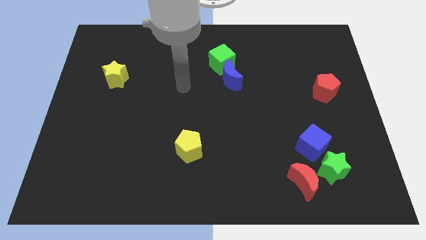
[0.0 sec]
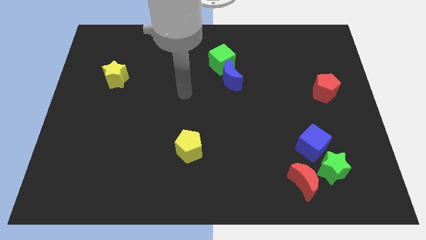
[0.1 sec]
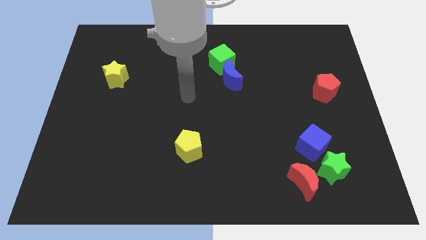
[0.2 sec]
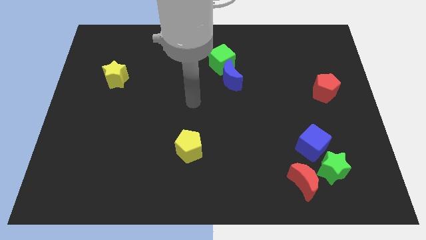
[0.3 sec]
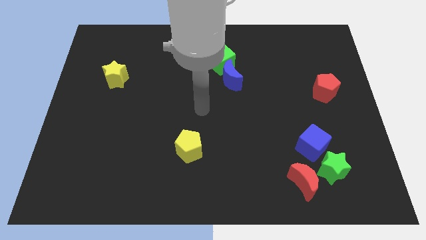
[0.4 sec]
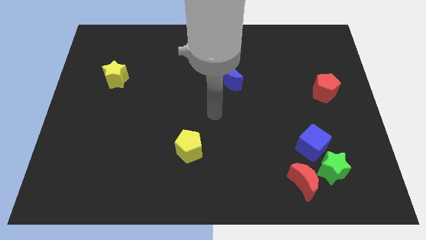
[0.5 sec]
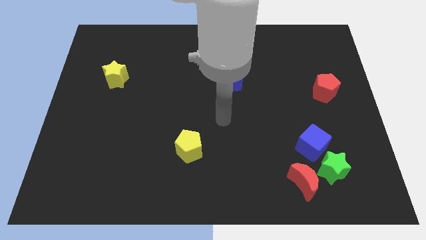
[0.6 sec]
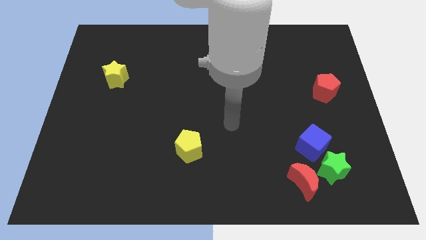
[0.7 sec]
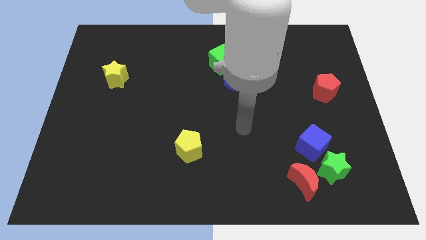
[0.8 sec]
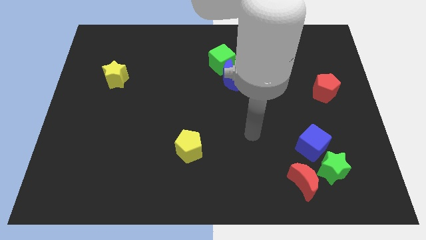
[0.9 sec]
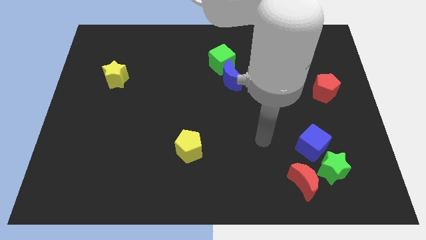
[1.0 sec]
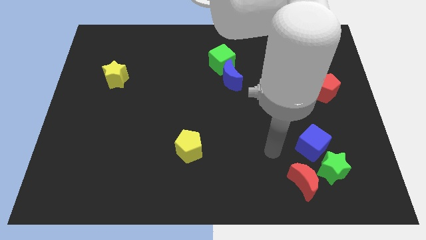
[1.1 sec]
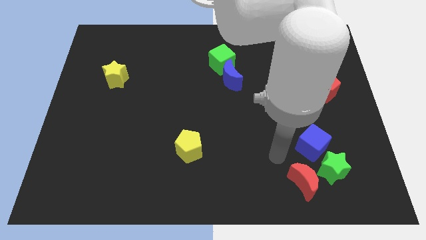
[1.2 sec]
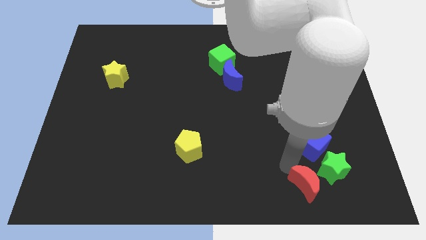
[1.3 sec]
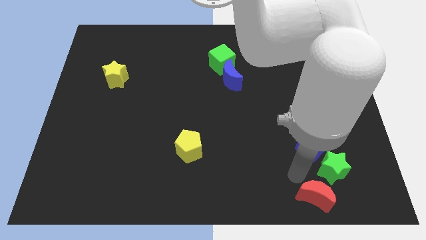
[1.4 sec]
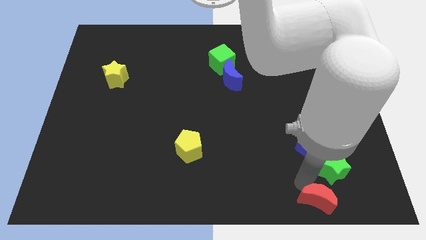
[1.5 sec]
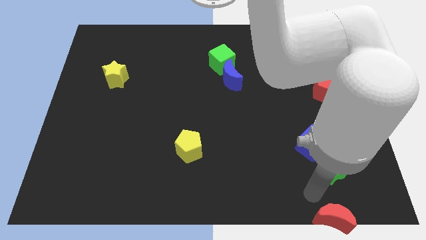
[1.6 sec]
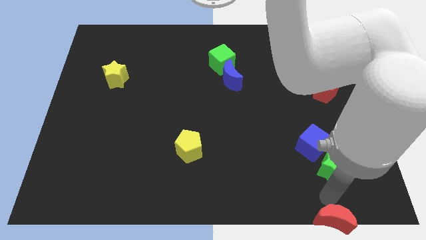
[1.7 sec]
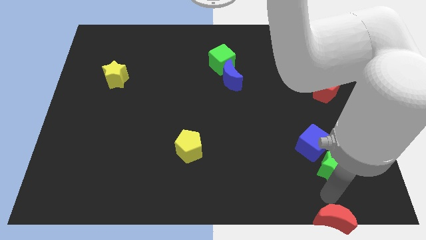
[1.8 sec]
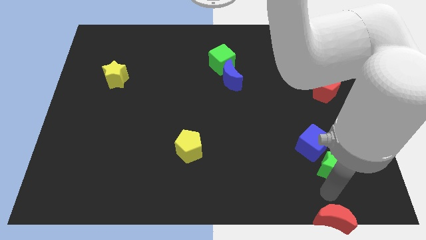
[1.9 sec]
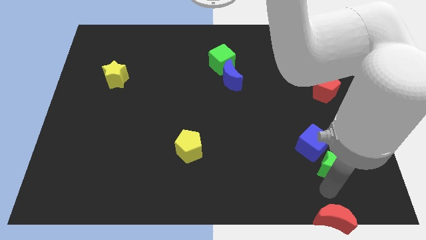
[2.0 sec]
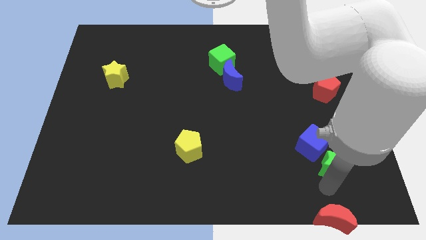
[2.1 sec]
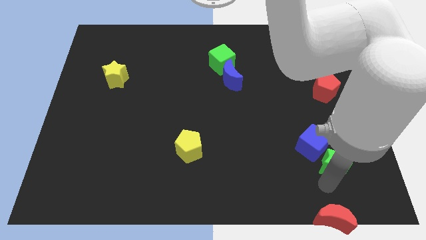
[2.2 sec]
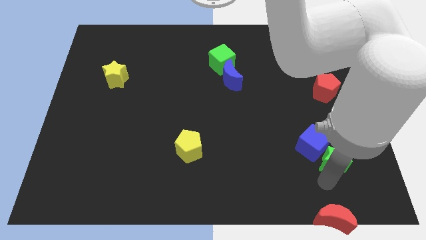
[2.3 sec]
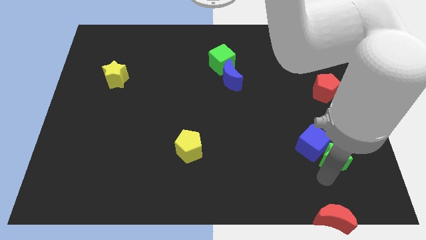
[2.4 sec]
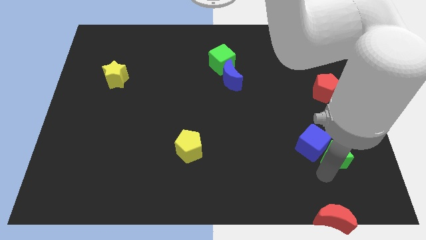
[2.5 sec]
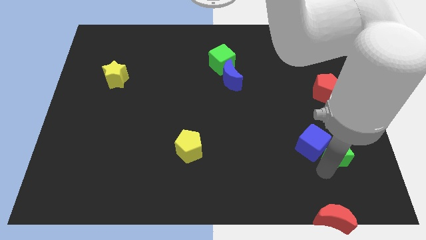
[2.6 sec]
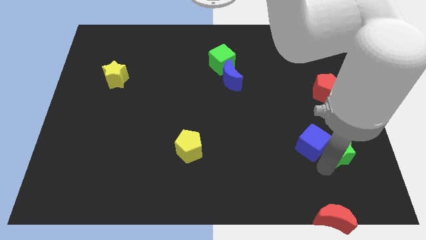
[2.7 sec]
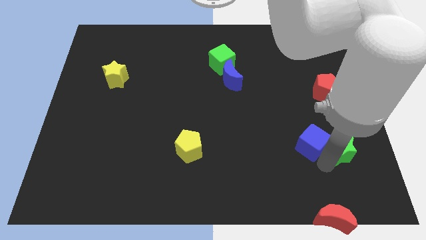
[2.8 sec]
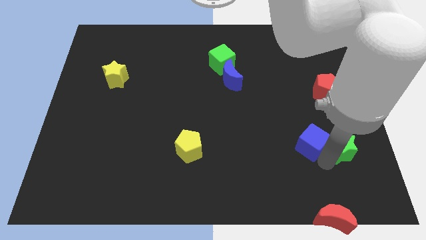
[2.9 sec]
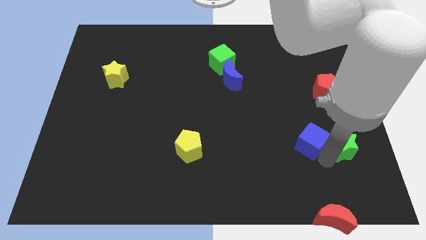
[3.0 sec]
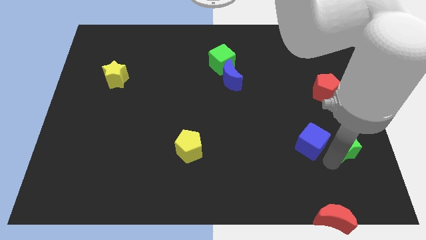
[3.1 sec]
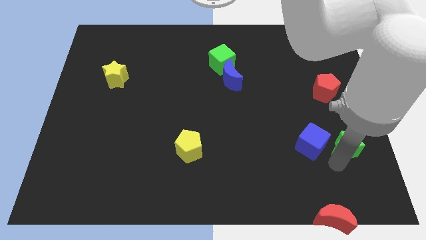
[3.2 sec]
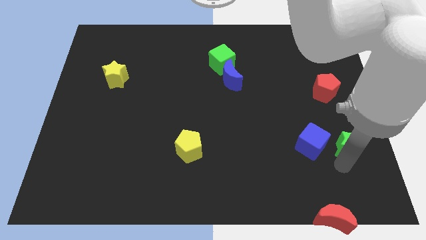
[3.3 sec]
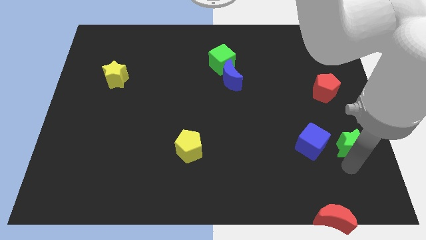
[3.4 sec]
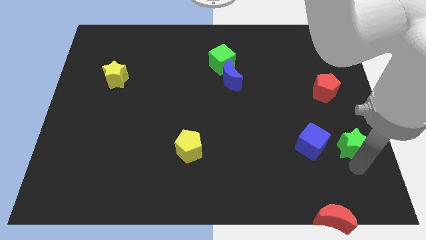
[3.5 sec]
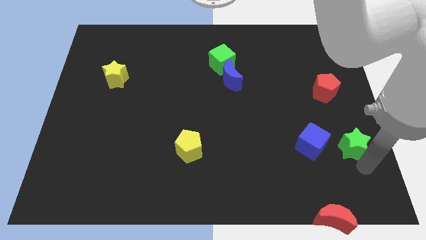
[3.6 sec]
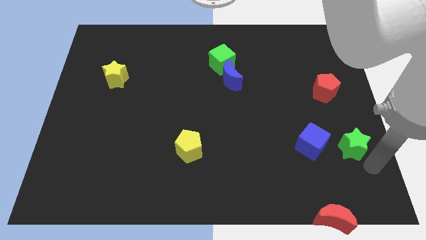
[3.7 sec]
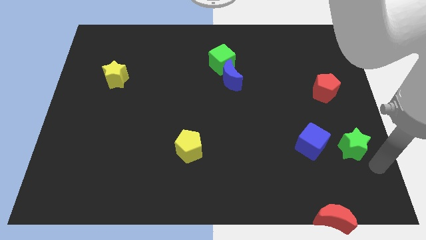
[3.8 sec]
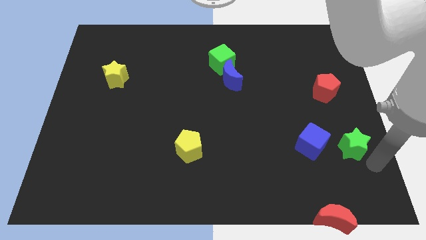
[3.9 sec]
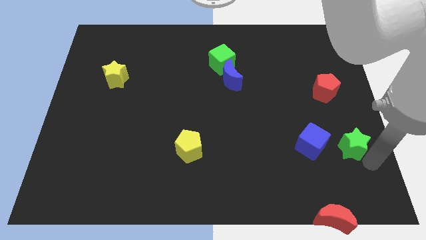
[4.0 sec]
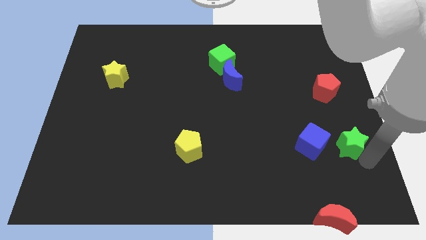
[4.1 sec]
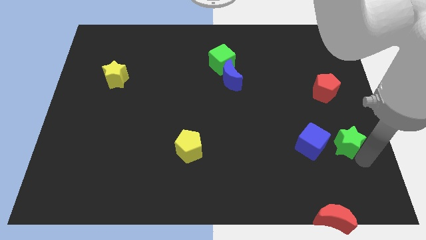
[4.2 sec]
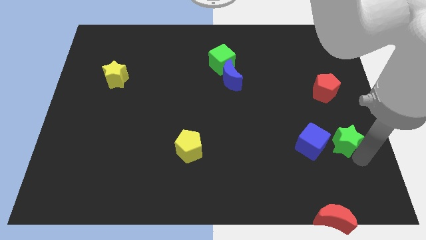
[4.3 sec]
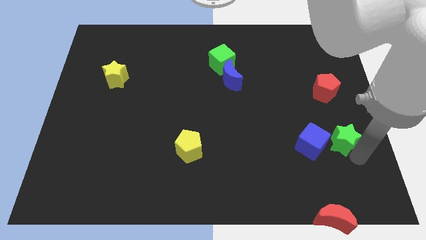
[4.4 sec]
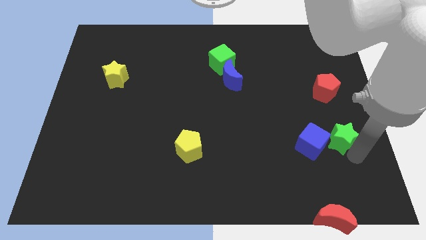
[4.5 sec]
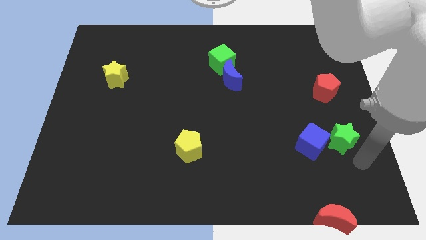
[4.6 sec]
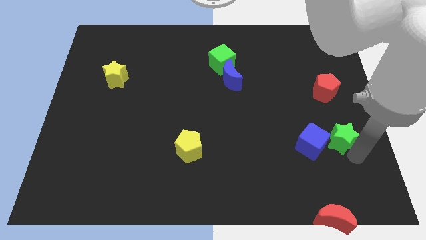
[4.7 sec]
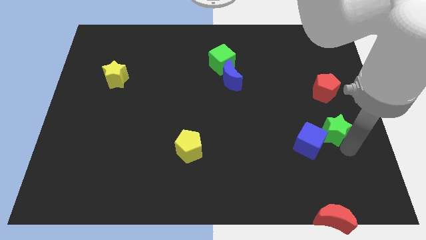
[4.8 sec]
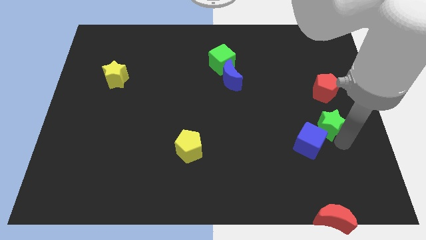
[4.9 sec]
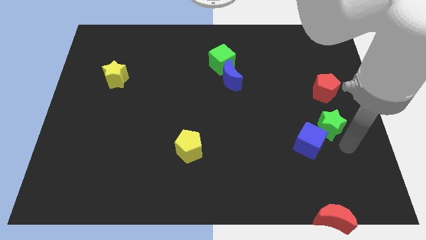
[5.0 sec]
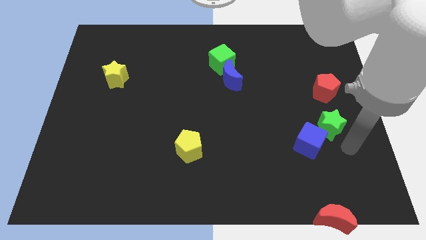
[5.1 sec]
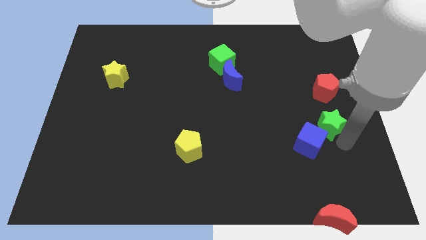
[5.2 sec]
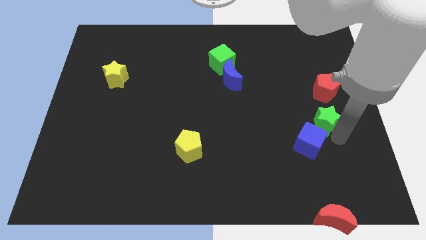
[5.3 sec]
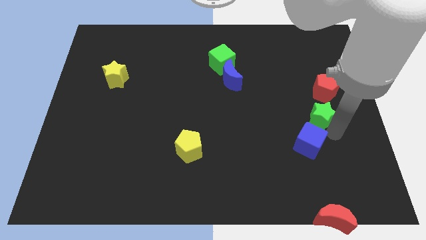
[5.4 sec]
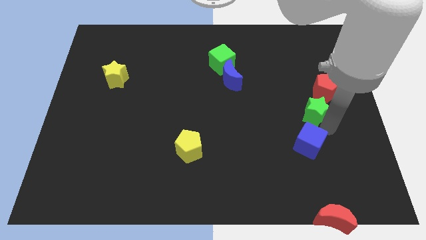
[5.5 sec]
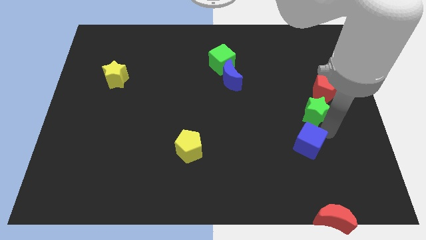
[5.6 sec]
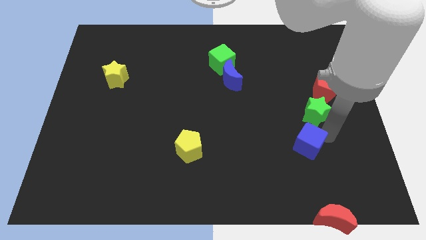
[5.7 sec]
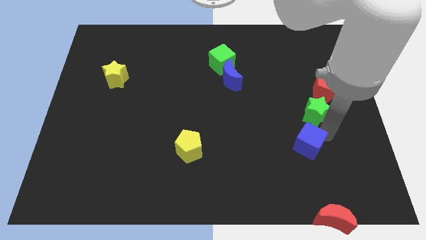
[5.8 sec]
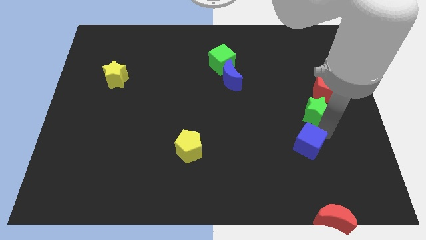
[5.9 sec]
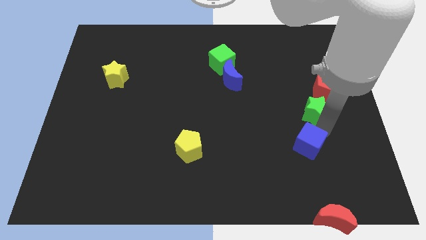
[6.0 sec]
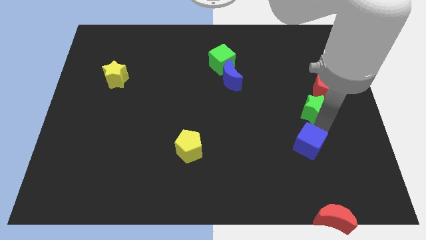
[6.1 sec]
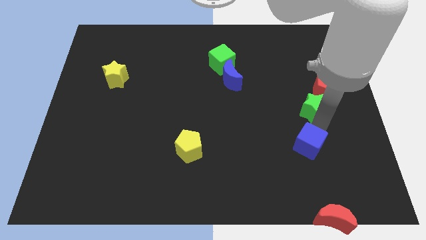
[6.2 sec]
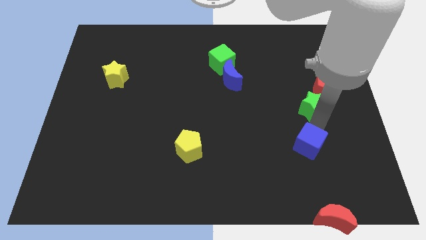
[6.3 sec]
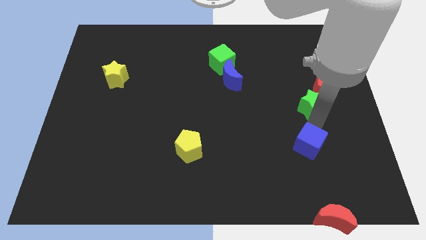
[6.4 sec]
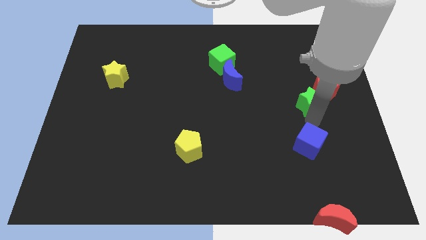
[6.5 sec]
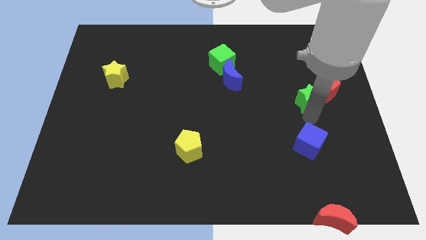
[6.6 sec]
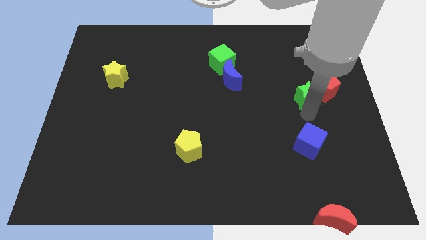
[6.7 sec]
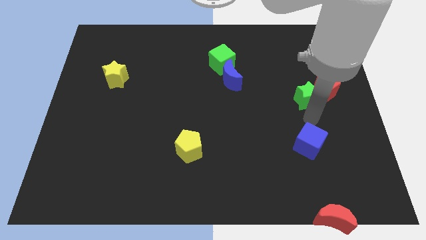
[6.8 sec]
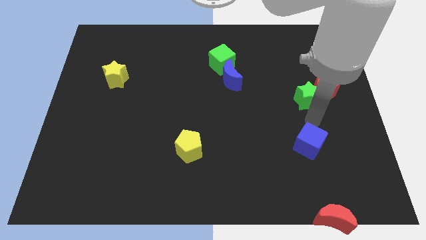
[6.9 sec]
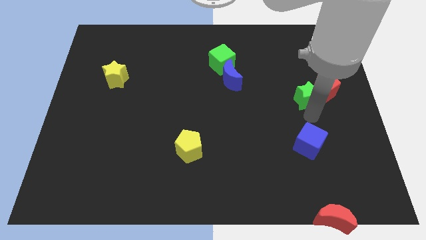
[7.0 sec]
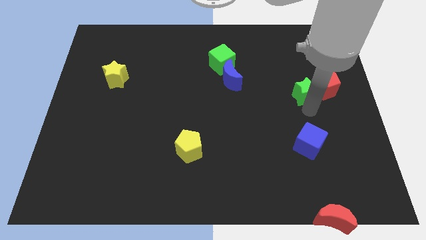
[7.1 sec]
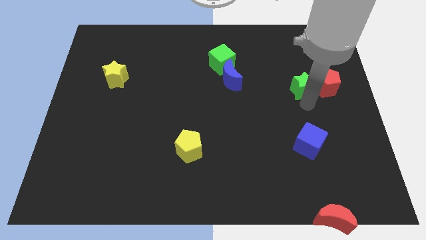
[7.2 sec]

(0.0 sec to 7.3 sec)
move the green star diagonally up and to the left of the red pentagon
